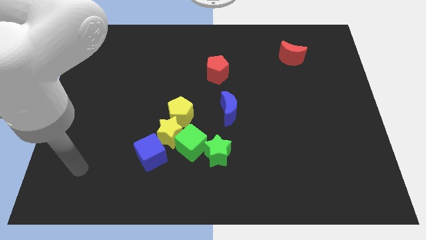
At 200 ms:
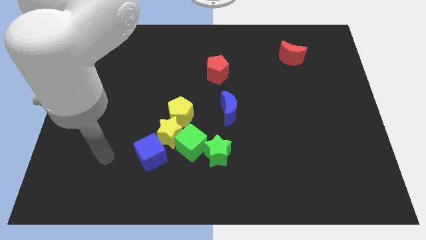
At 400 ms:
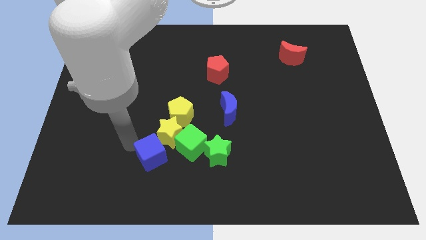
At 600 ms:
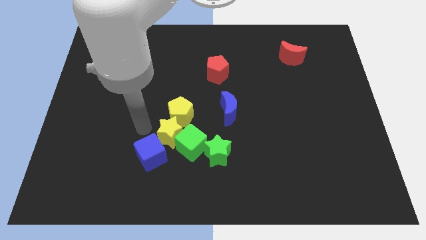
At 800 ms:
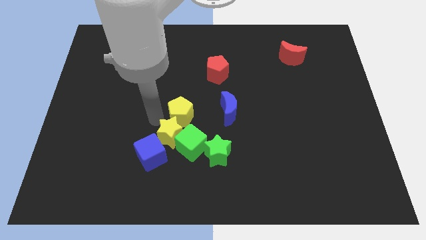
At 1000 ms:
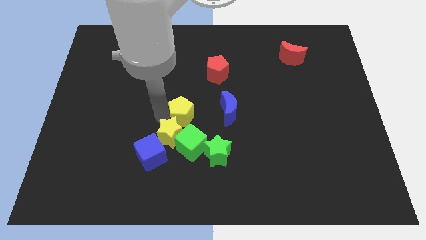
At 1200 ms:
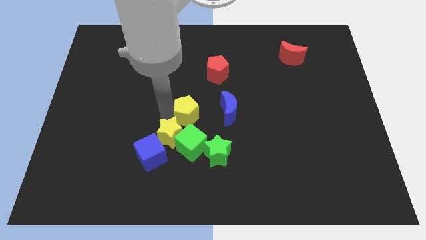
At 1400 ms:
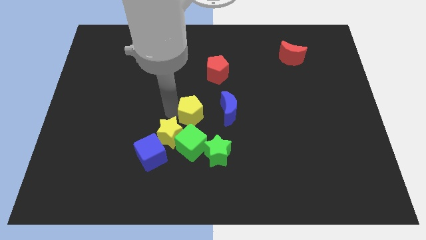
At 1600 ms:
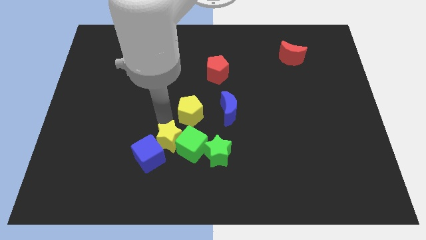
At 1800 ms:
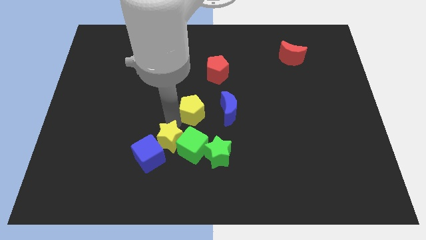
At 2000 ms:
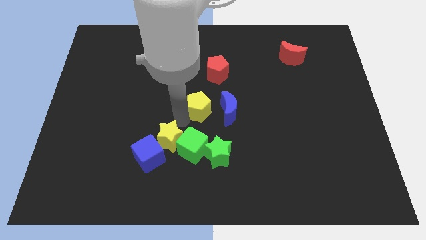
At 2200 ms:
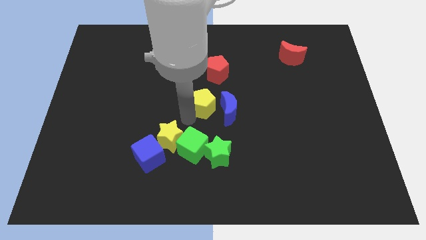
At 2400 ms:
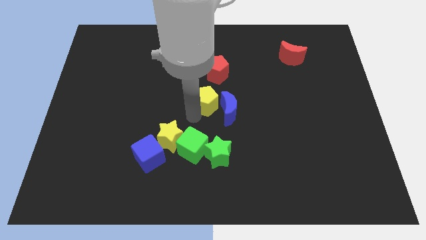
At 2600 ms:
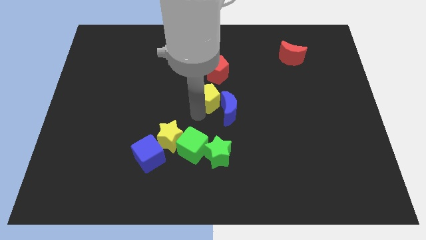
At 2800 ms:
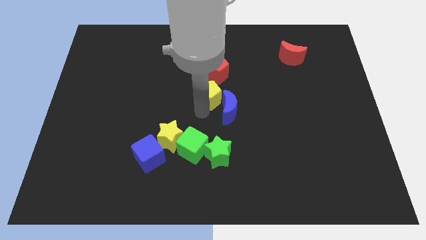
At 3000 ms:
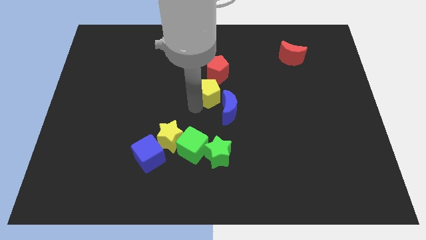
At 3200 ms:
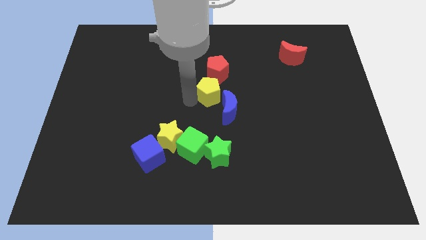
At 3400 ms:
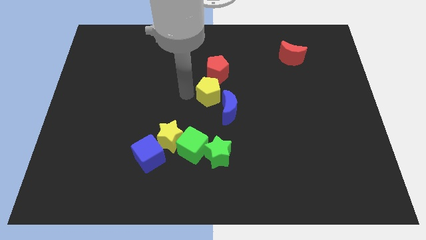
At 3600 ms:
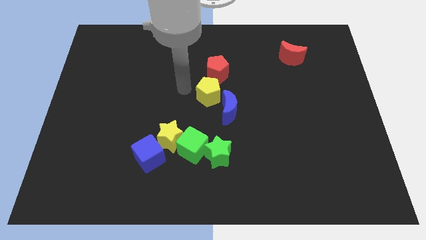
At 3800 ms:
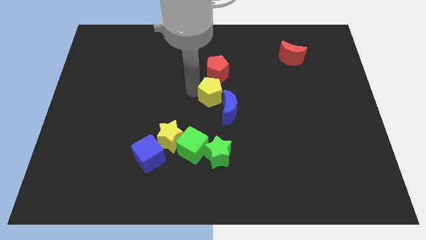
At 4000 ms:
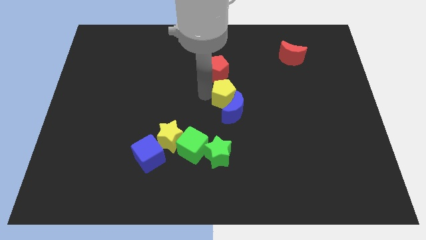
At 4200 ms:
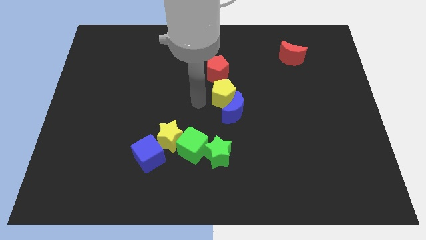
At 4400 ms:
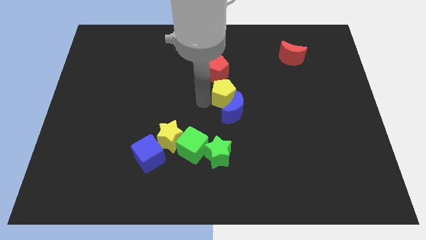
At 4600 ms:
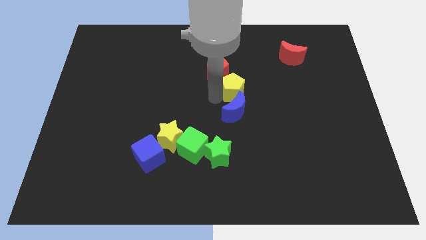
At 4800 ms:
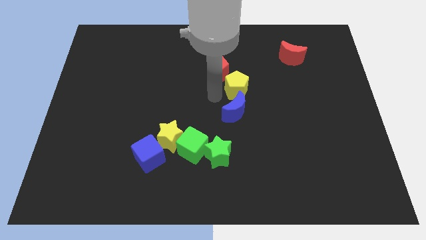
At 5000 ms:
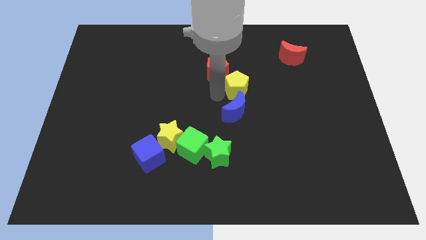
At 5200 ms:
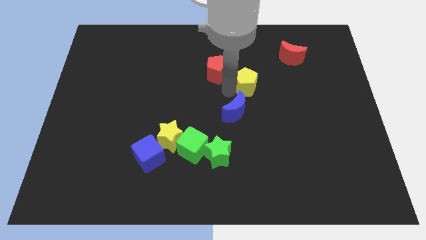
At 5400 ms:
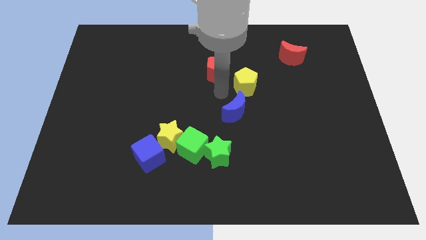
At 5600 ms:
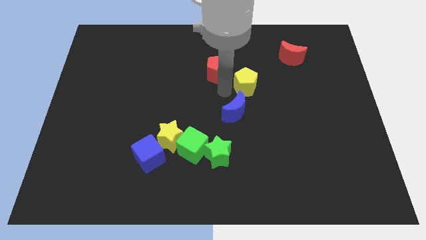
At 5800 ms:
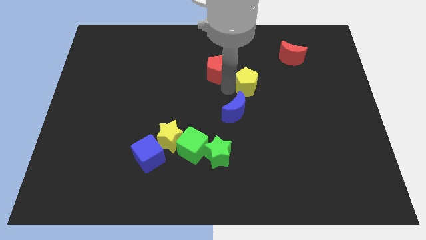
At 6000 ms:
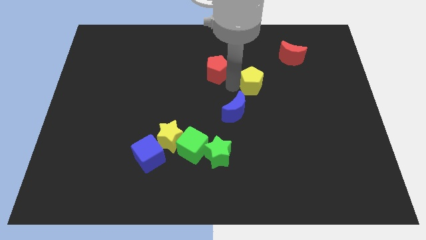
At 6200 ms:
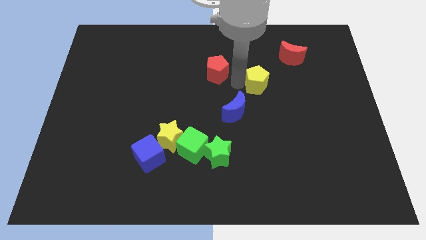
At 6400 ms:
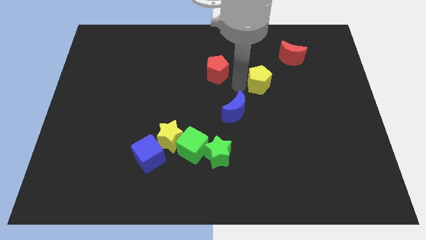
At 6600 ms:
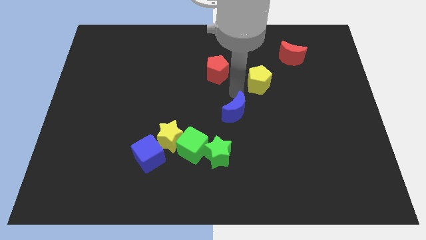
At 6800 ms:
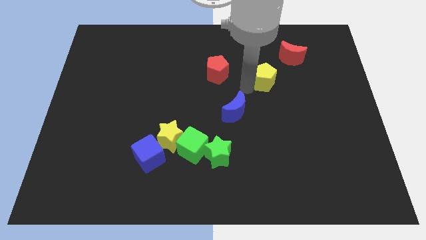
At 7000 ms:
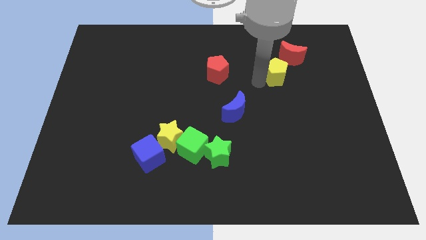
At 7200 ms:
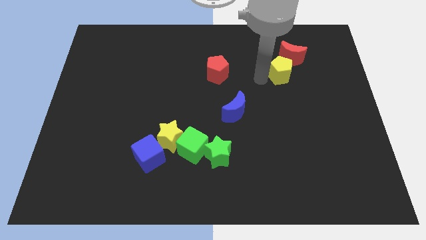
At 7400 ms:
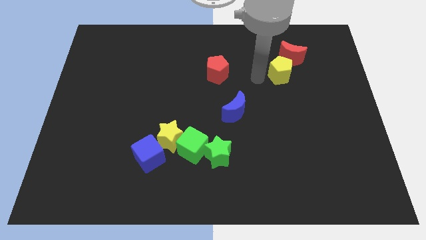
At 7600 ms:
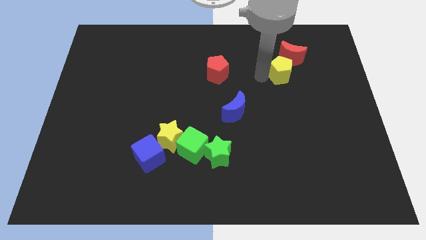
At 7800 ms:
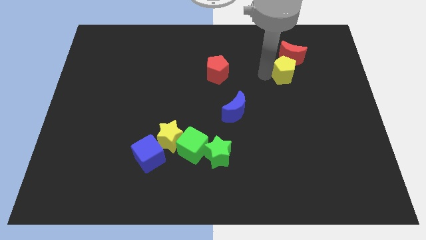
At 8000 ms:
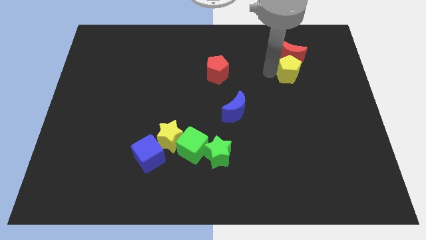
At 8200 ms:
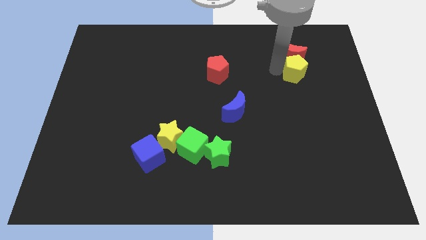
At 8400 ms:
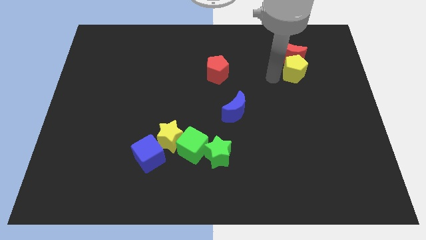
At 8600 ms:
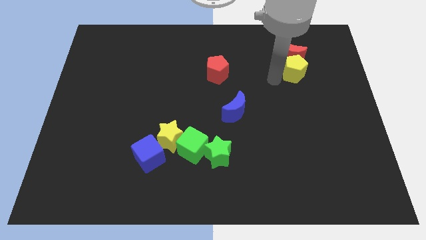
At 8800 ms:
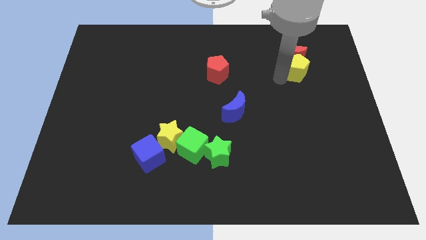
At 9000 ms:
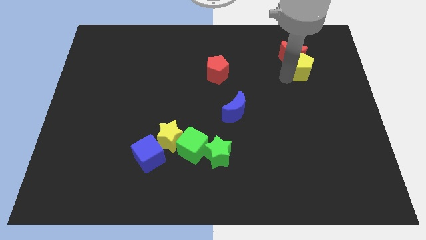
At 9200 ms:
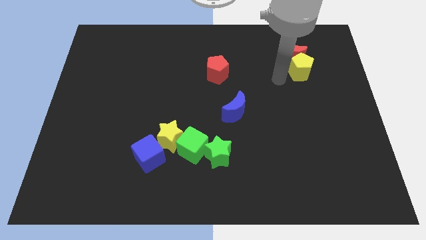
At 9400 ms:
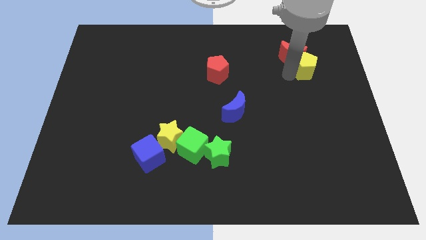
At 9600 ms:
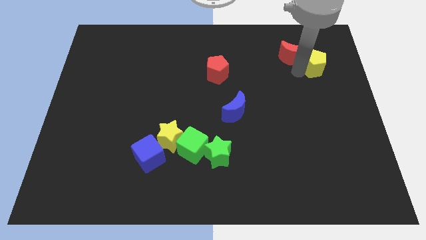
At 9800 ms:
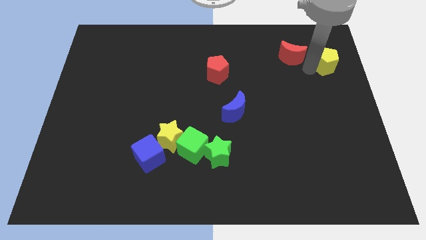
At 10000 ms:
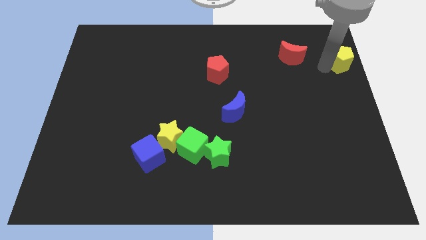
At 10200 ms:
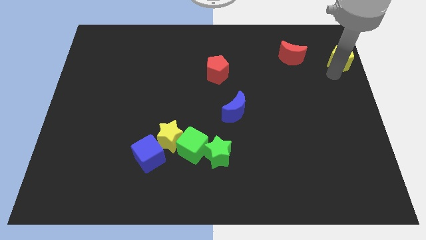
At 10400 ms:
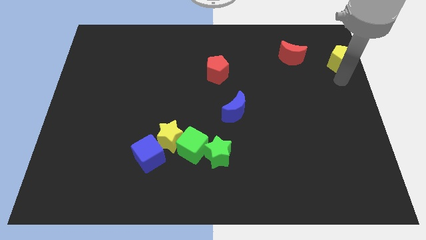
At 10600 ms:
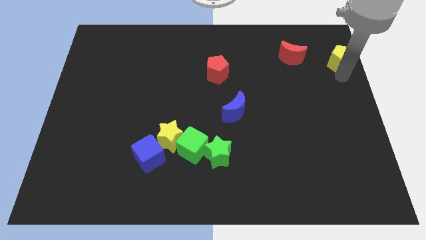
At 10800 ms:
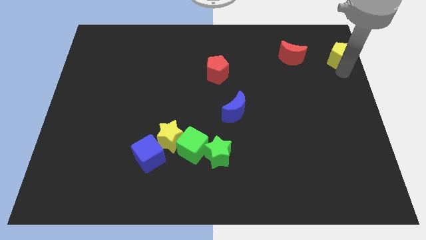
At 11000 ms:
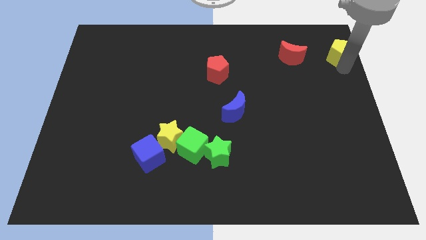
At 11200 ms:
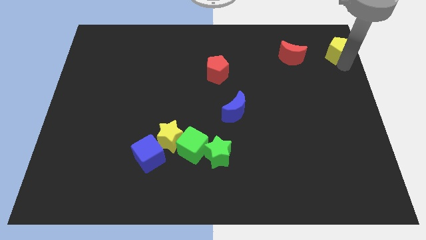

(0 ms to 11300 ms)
put the yellow pentagon to the top right of the board

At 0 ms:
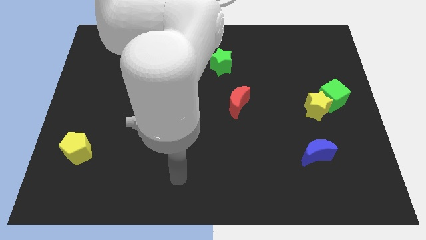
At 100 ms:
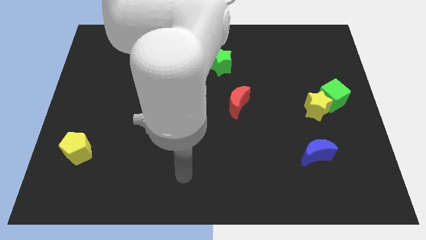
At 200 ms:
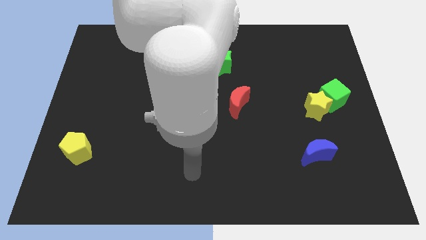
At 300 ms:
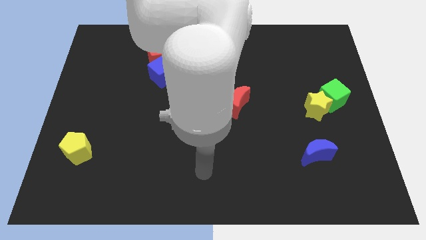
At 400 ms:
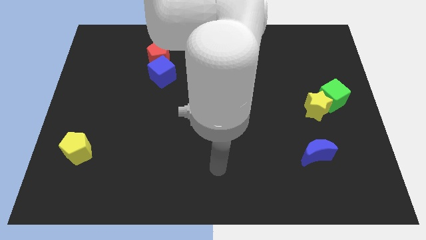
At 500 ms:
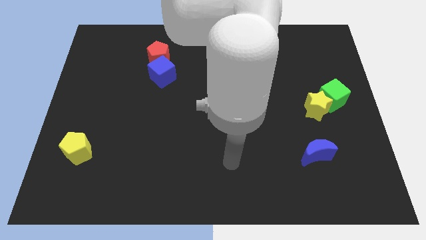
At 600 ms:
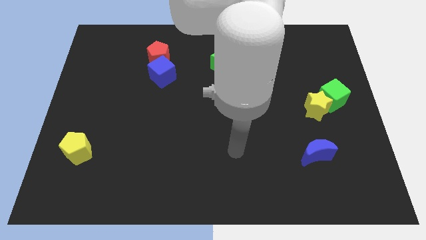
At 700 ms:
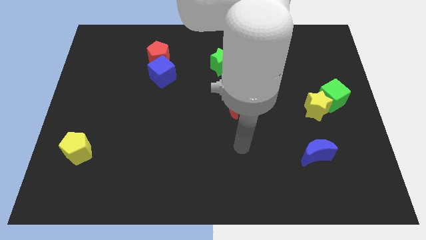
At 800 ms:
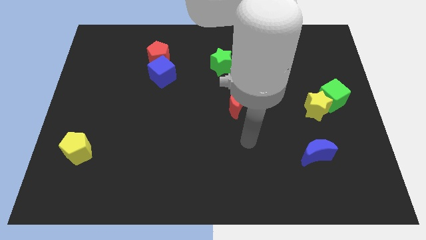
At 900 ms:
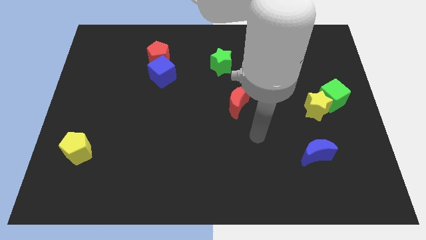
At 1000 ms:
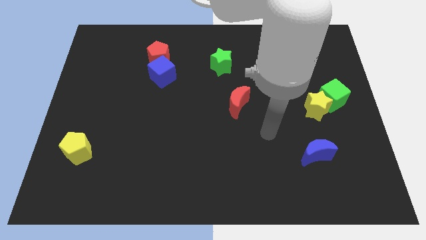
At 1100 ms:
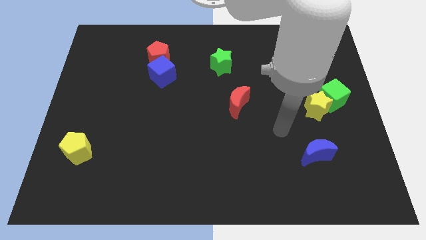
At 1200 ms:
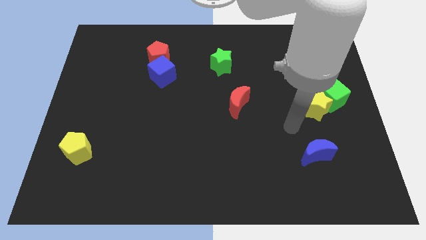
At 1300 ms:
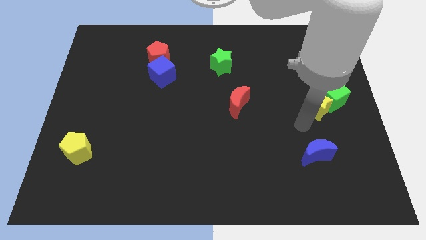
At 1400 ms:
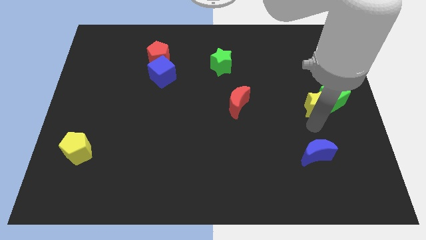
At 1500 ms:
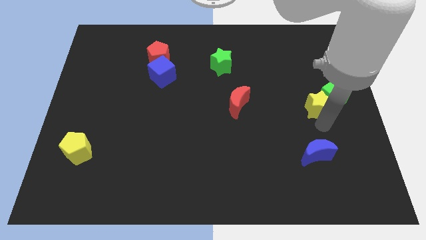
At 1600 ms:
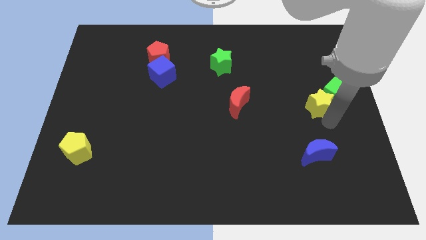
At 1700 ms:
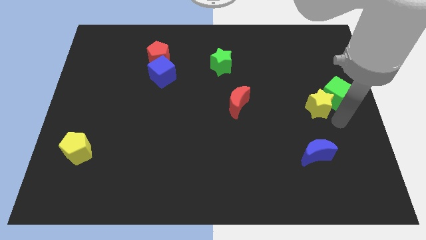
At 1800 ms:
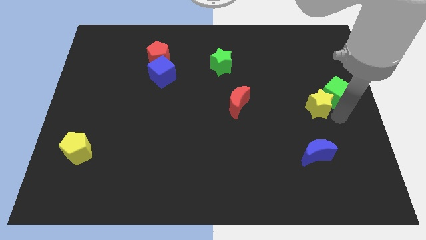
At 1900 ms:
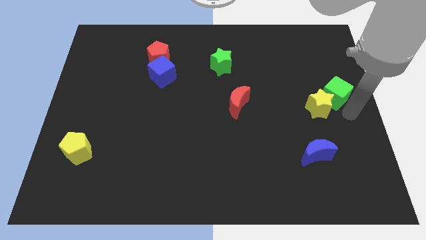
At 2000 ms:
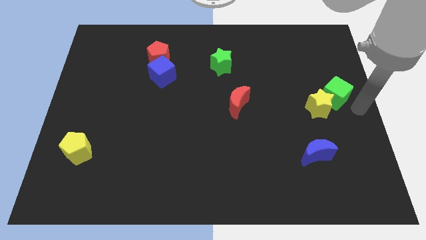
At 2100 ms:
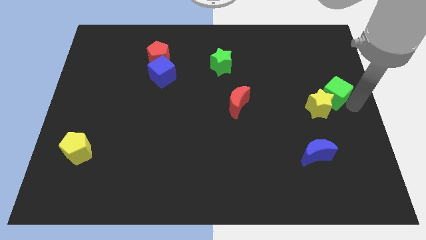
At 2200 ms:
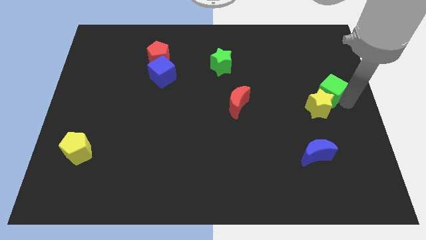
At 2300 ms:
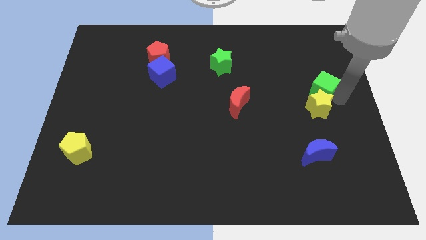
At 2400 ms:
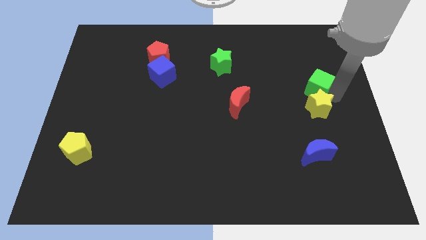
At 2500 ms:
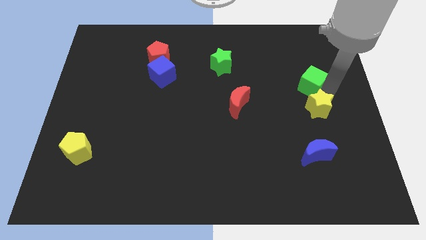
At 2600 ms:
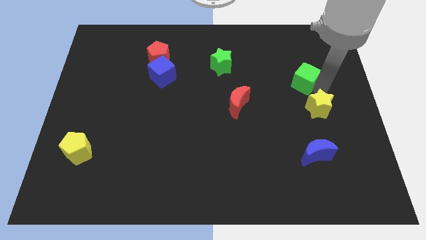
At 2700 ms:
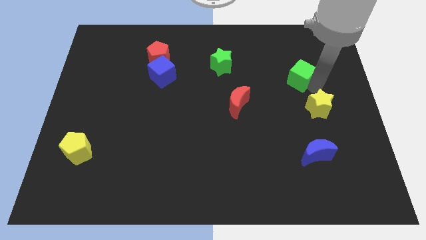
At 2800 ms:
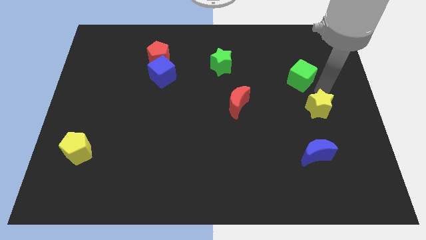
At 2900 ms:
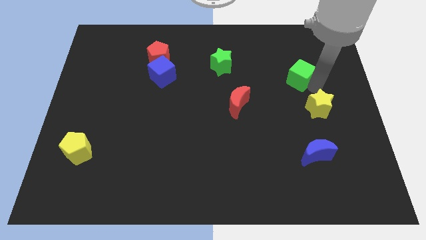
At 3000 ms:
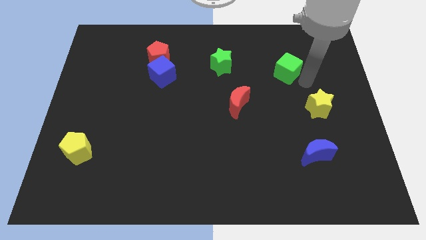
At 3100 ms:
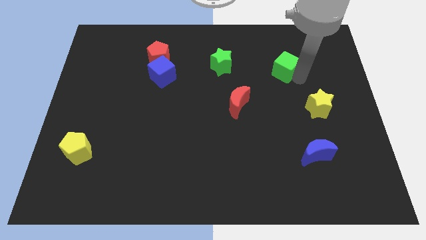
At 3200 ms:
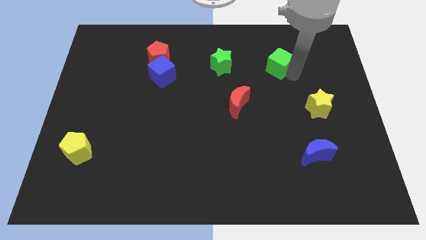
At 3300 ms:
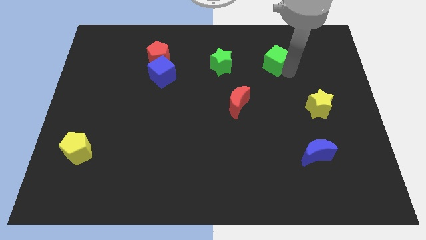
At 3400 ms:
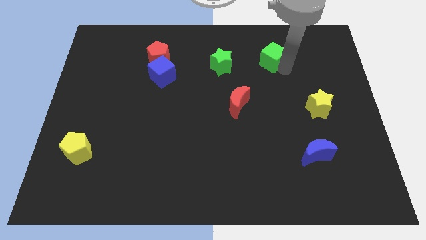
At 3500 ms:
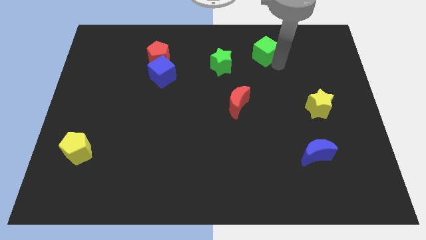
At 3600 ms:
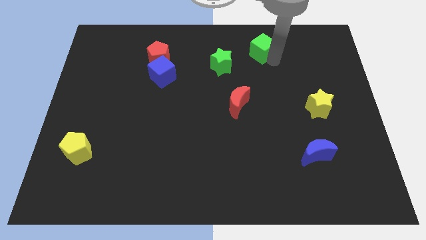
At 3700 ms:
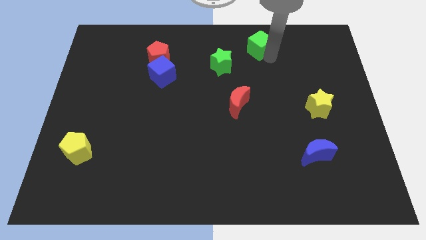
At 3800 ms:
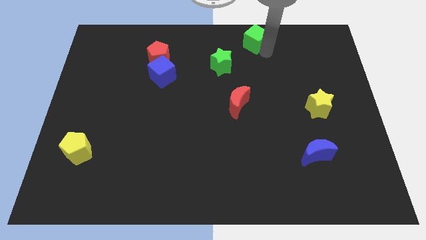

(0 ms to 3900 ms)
put the green cube to the top side
